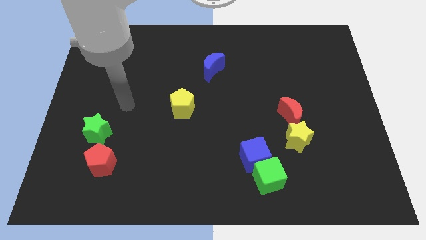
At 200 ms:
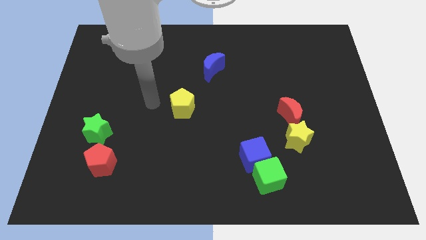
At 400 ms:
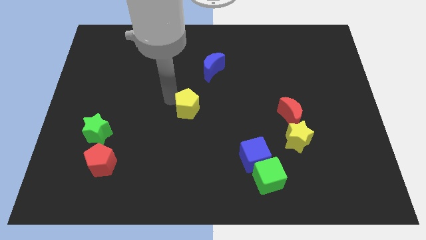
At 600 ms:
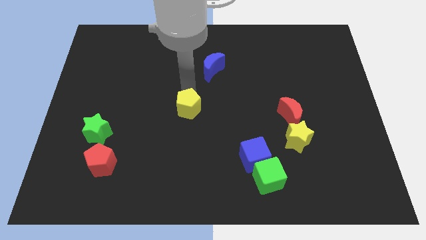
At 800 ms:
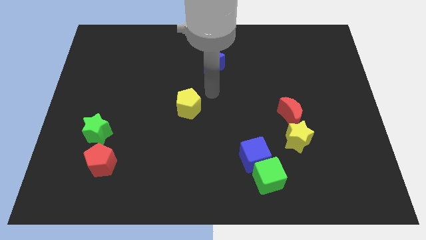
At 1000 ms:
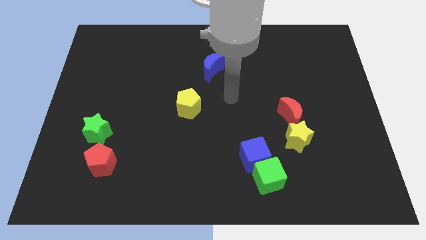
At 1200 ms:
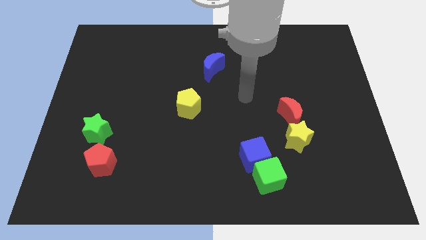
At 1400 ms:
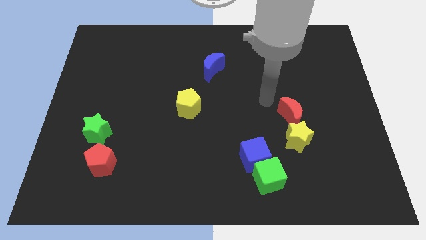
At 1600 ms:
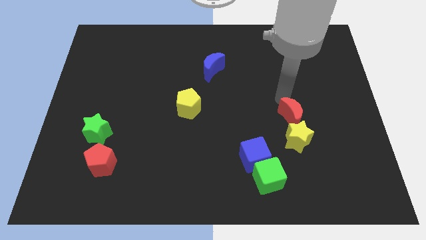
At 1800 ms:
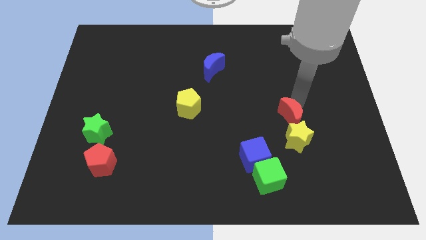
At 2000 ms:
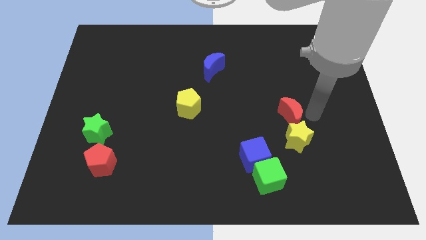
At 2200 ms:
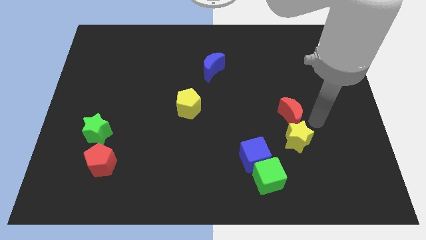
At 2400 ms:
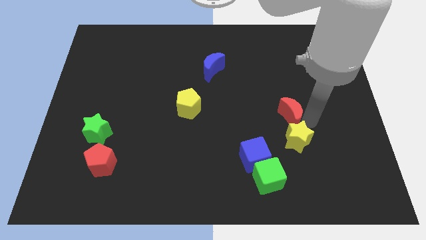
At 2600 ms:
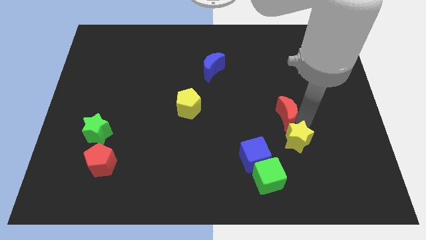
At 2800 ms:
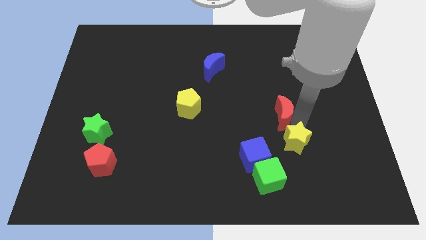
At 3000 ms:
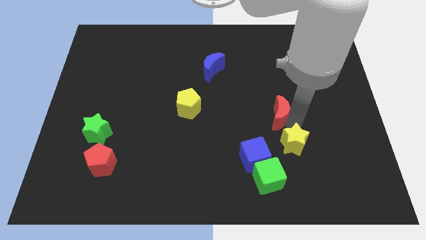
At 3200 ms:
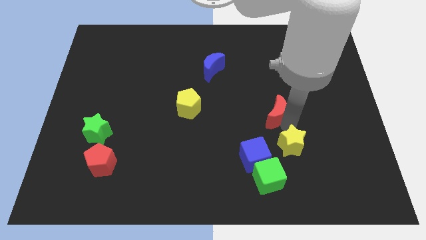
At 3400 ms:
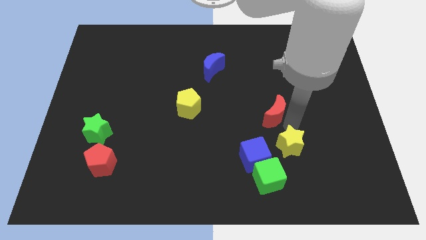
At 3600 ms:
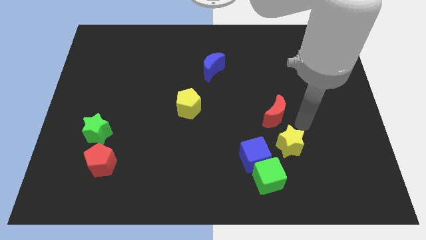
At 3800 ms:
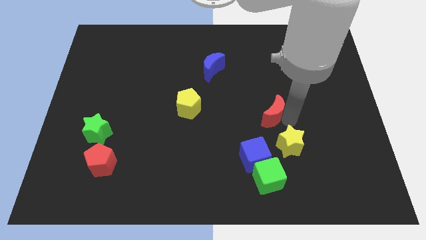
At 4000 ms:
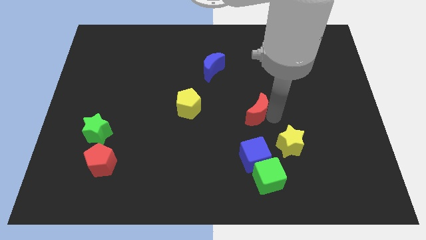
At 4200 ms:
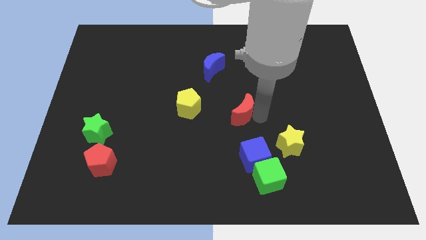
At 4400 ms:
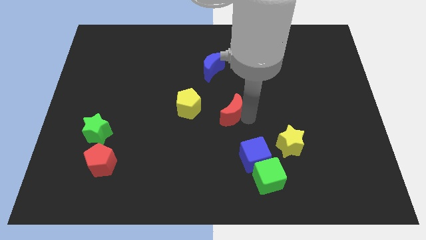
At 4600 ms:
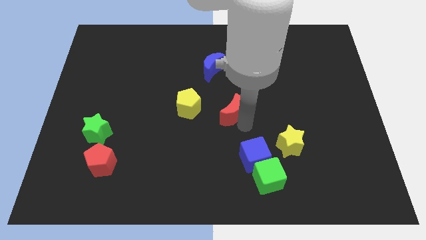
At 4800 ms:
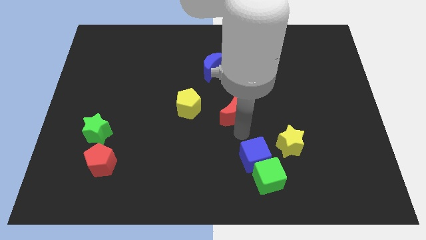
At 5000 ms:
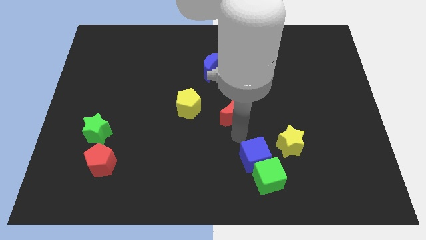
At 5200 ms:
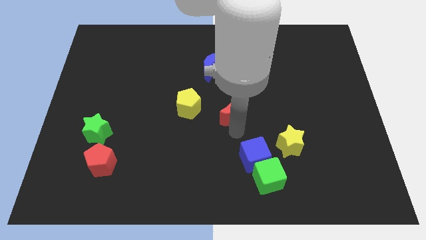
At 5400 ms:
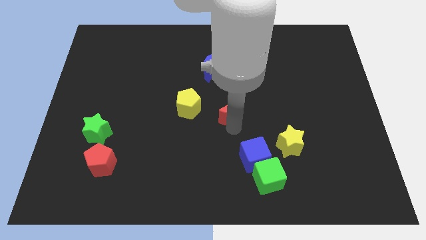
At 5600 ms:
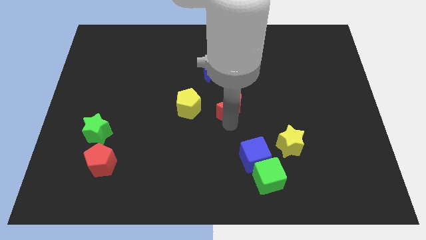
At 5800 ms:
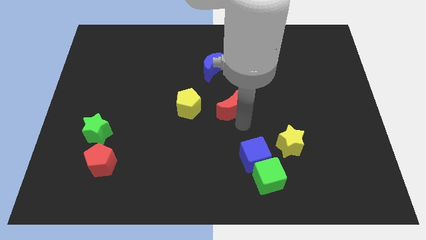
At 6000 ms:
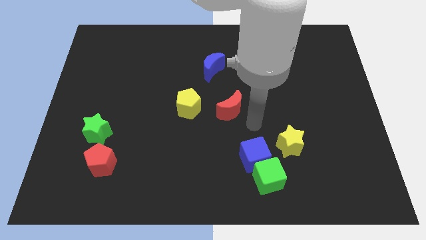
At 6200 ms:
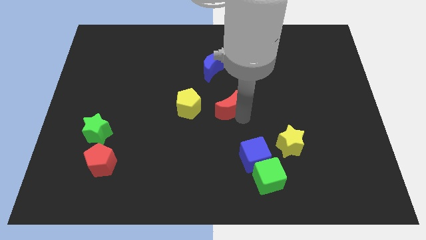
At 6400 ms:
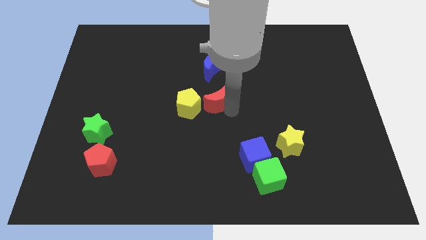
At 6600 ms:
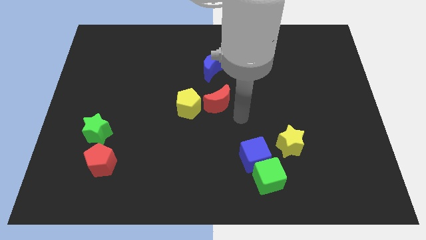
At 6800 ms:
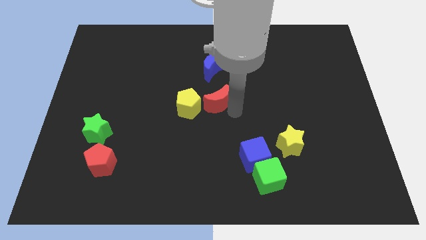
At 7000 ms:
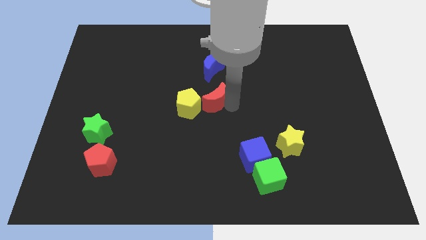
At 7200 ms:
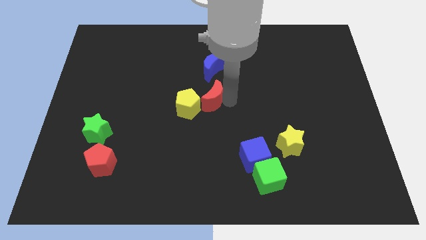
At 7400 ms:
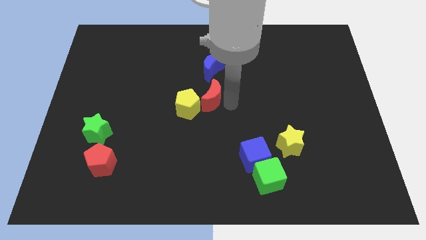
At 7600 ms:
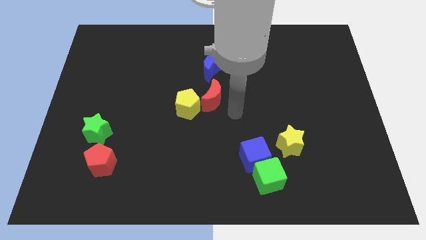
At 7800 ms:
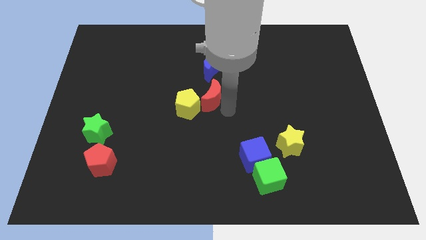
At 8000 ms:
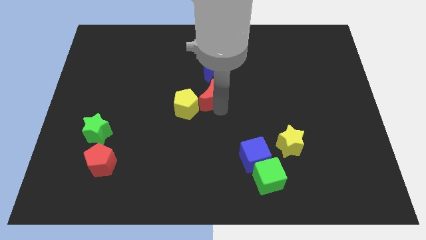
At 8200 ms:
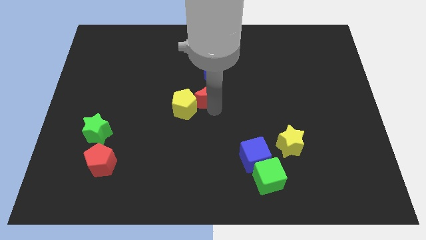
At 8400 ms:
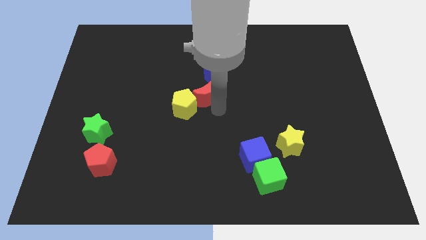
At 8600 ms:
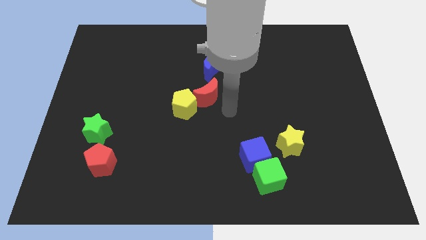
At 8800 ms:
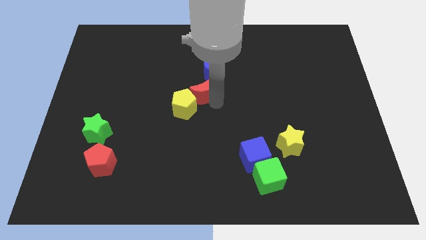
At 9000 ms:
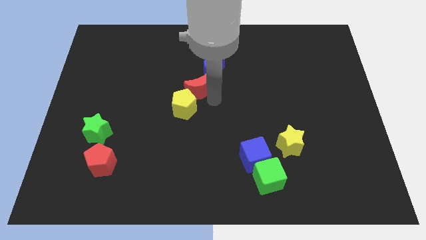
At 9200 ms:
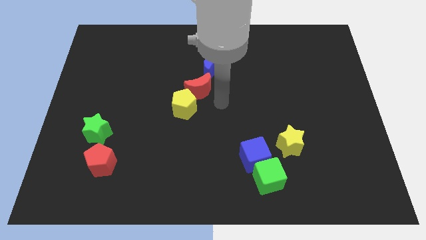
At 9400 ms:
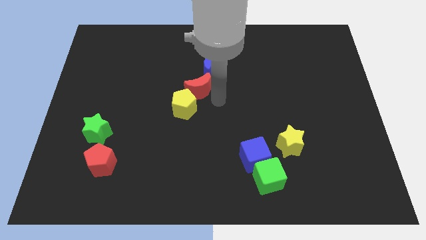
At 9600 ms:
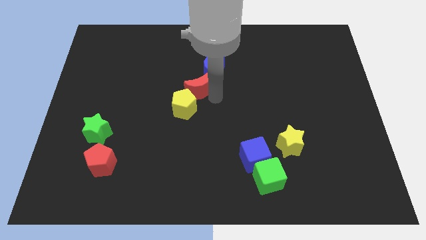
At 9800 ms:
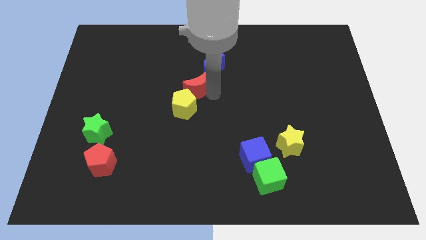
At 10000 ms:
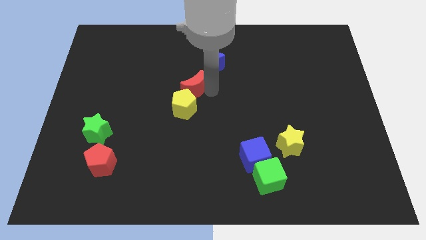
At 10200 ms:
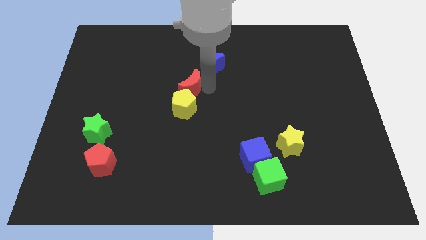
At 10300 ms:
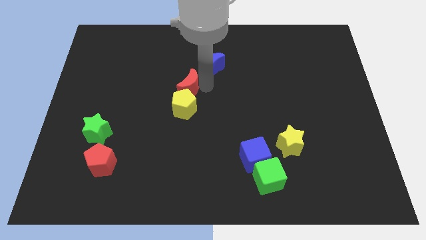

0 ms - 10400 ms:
push the red moon to the top left of the yellow pentagon

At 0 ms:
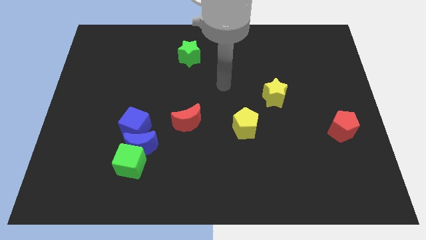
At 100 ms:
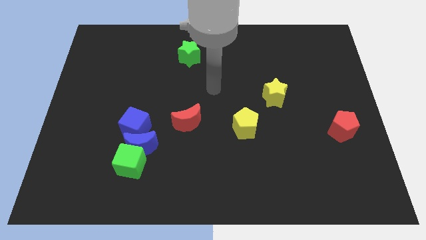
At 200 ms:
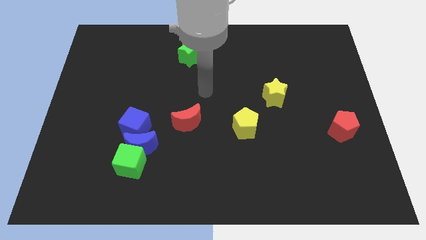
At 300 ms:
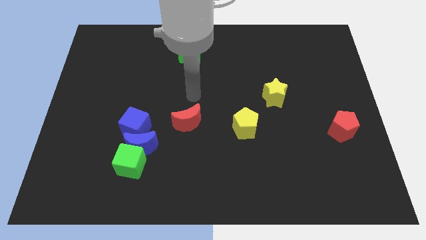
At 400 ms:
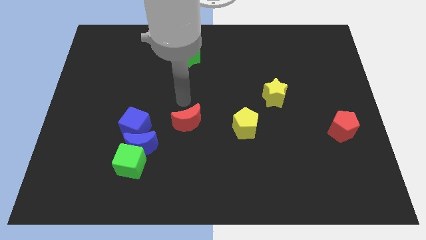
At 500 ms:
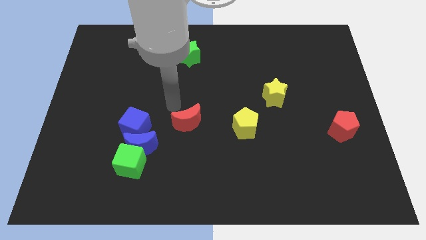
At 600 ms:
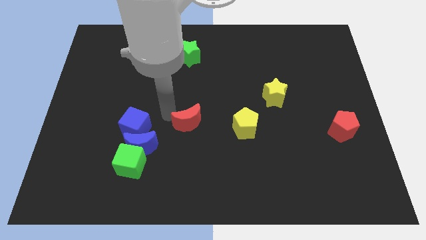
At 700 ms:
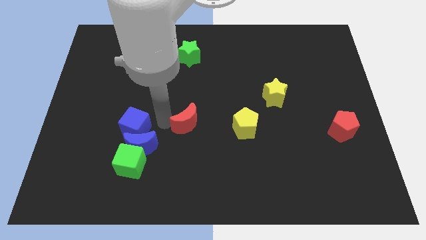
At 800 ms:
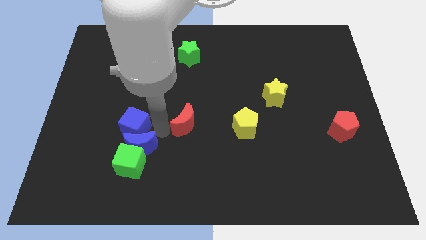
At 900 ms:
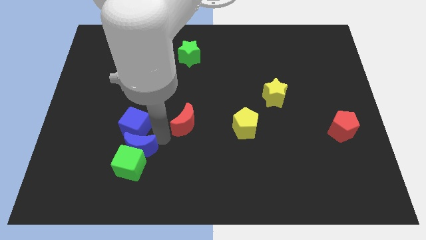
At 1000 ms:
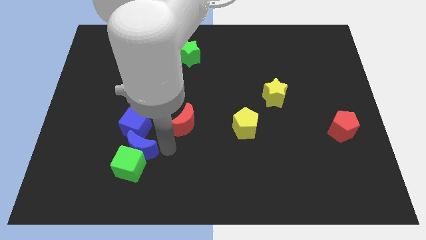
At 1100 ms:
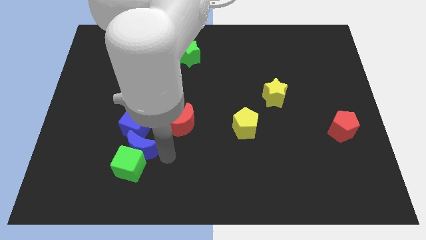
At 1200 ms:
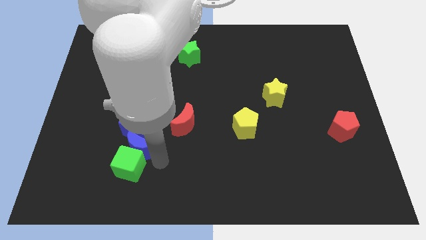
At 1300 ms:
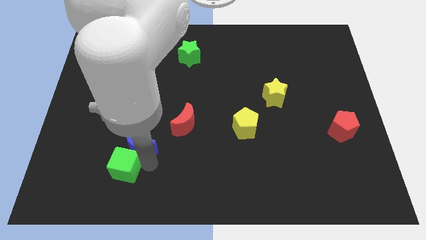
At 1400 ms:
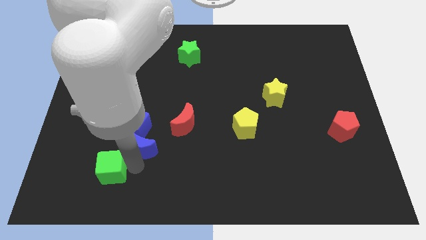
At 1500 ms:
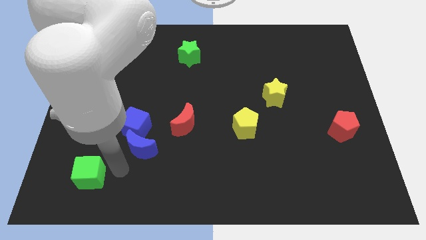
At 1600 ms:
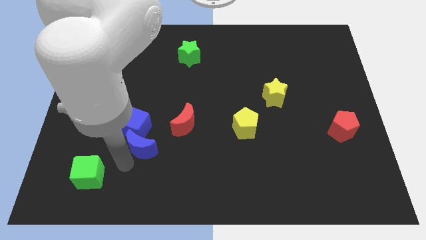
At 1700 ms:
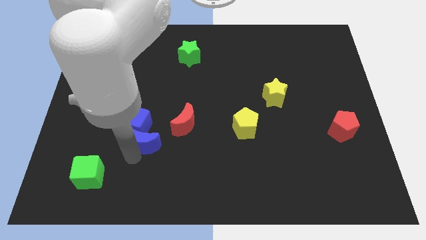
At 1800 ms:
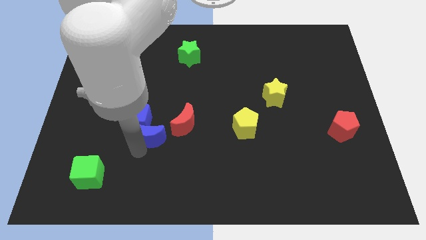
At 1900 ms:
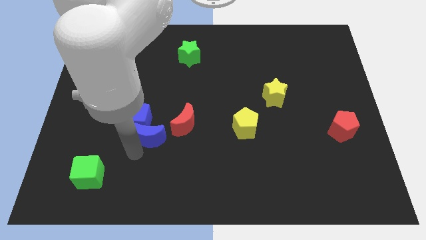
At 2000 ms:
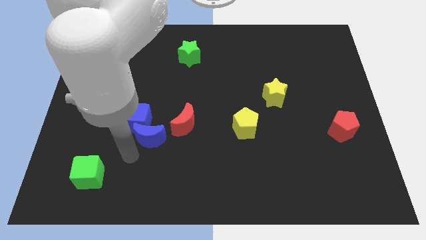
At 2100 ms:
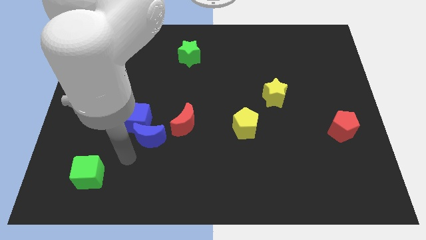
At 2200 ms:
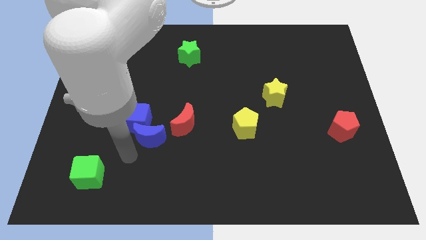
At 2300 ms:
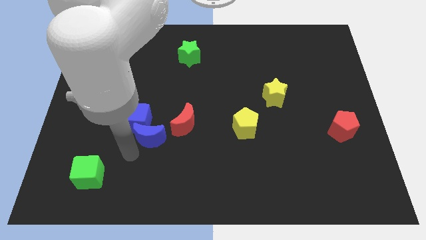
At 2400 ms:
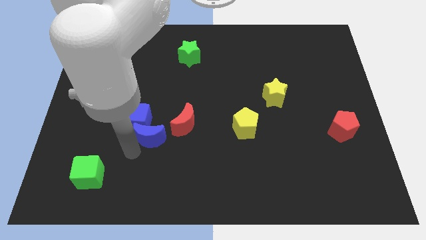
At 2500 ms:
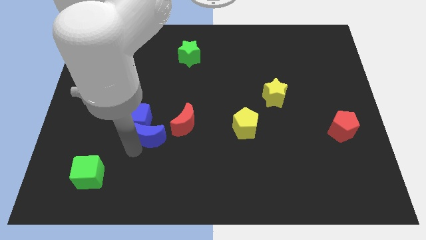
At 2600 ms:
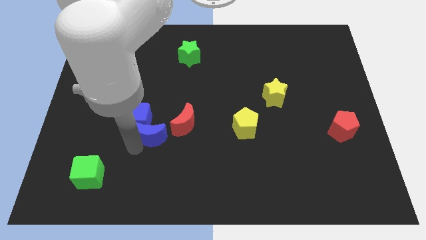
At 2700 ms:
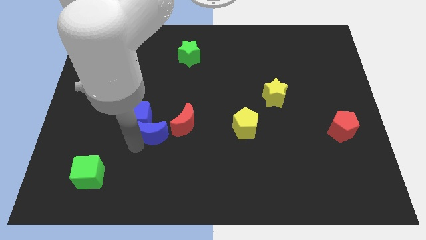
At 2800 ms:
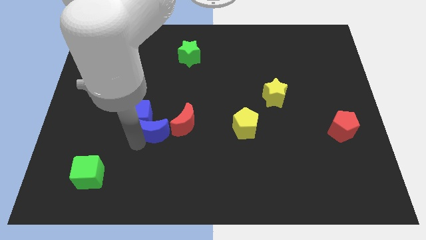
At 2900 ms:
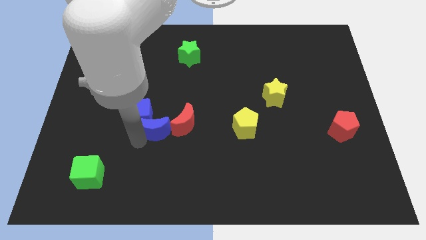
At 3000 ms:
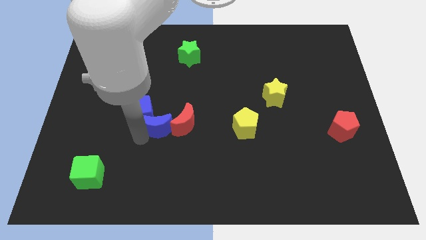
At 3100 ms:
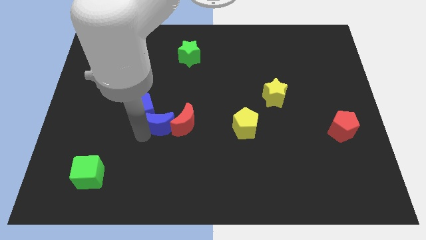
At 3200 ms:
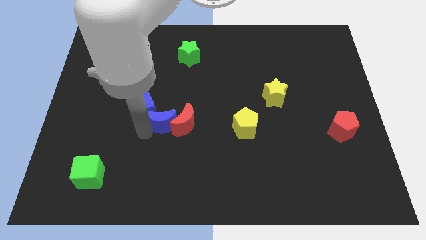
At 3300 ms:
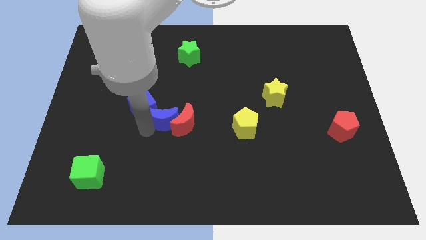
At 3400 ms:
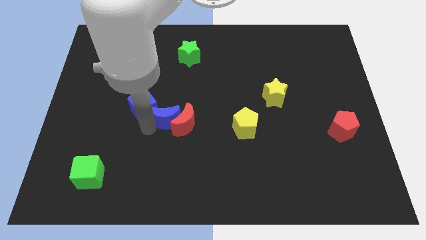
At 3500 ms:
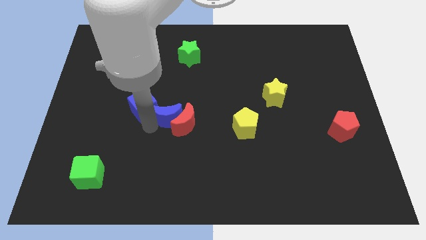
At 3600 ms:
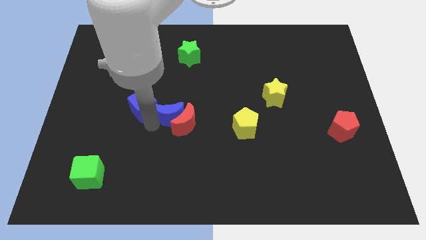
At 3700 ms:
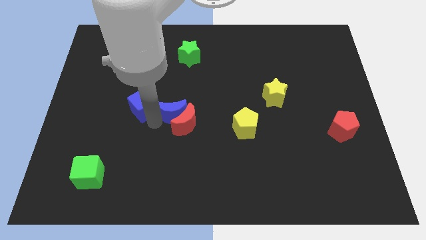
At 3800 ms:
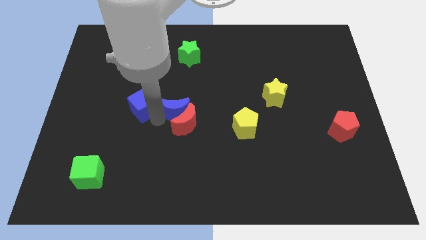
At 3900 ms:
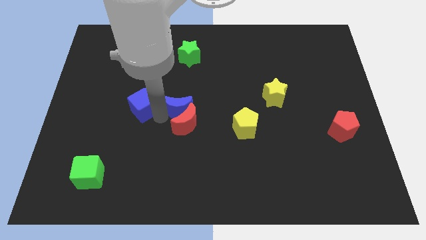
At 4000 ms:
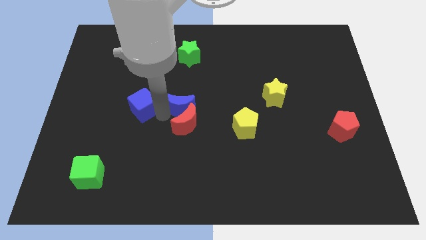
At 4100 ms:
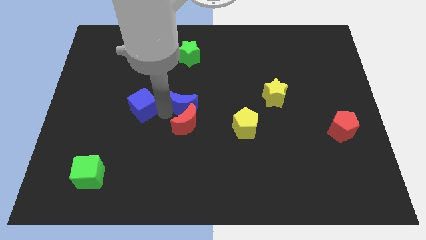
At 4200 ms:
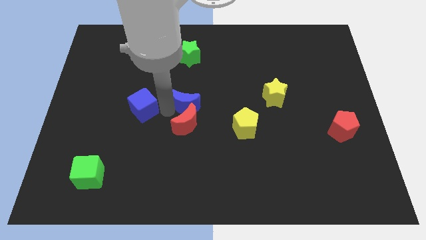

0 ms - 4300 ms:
slide the blue moon to the bottom of the green star
